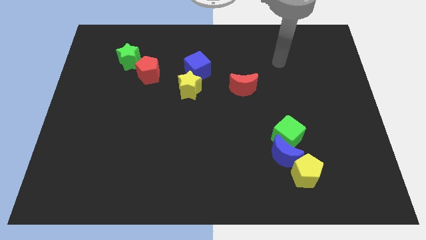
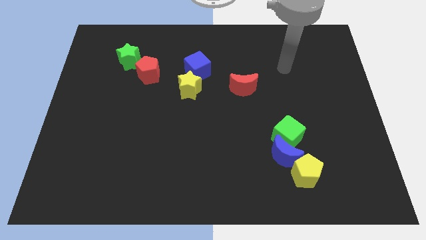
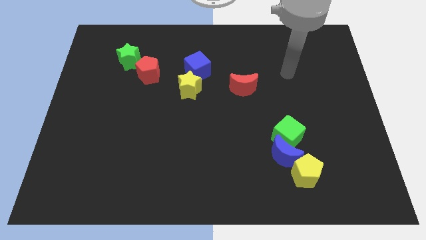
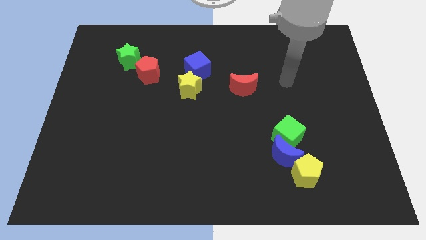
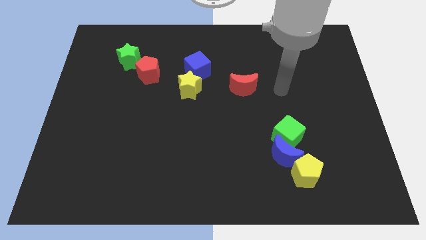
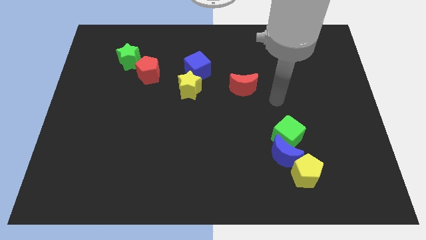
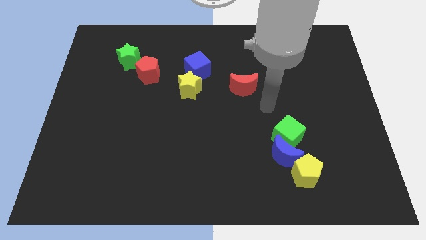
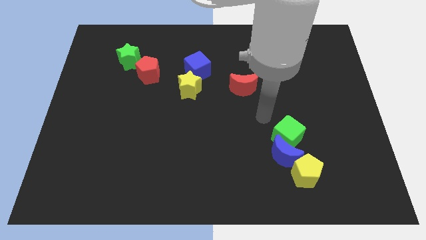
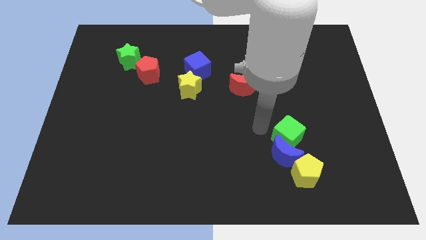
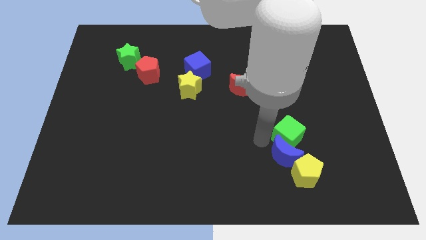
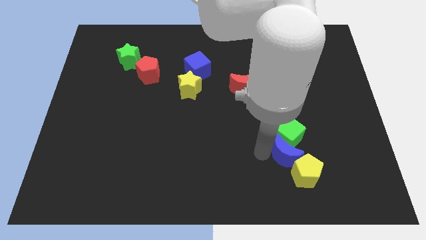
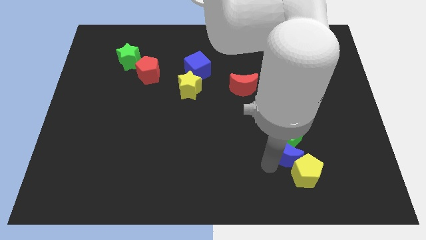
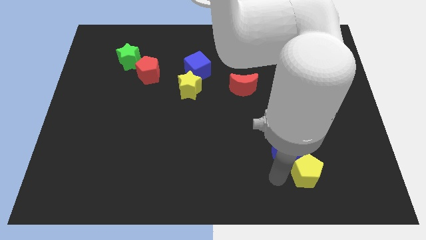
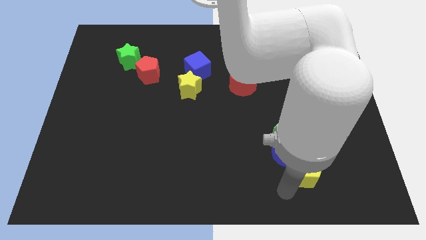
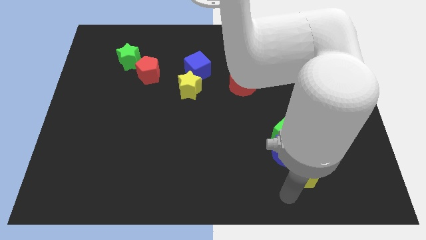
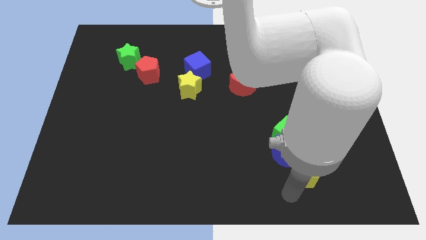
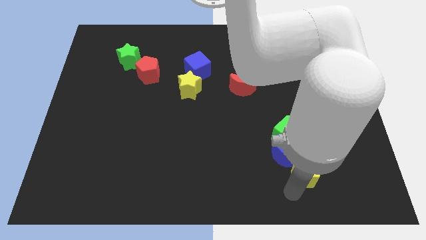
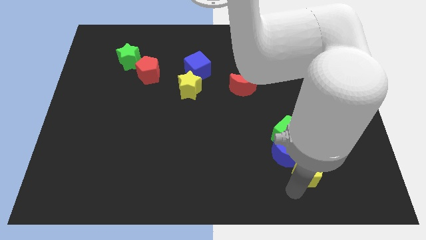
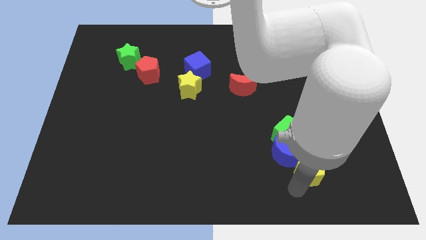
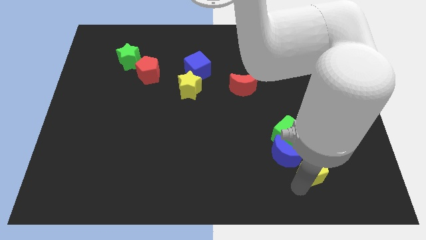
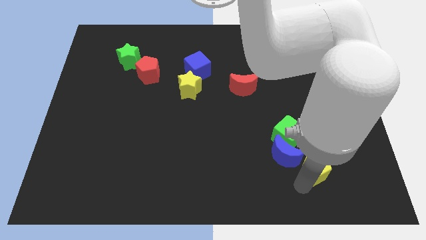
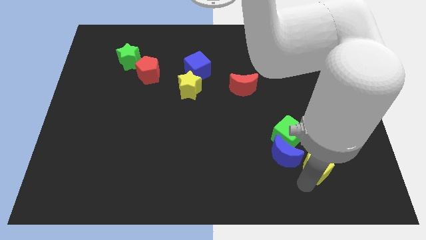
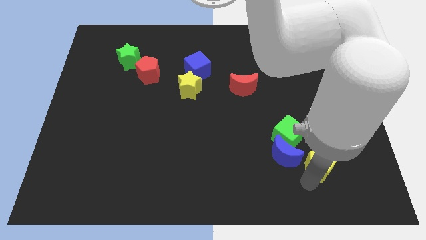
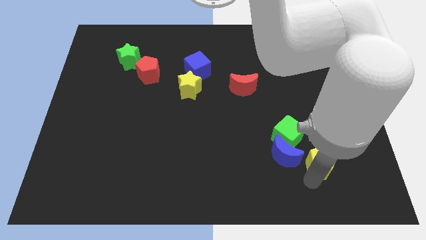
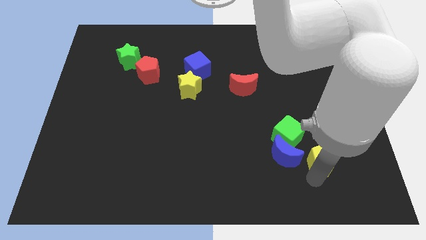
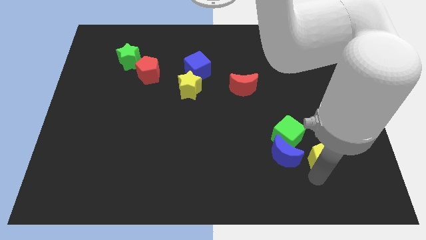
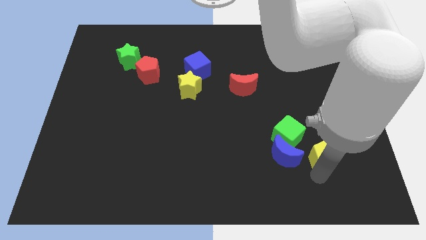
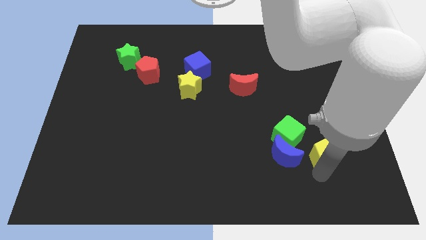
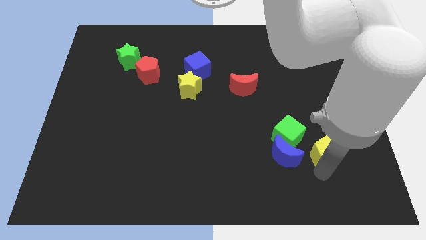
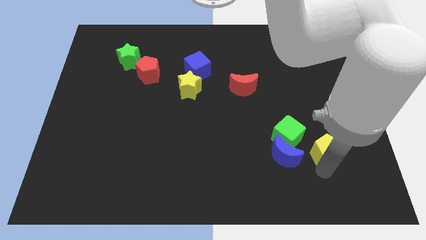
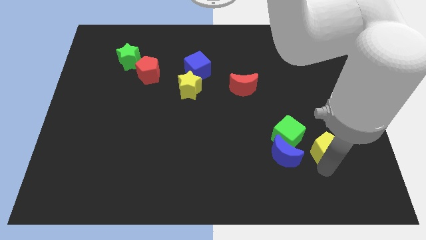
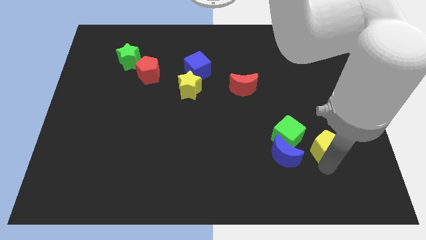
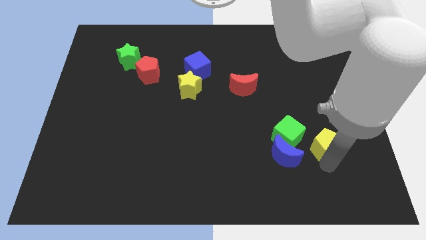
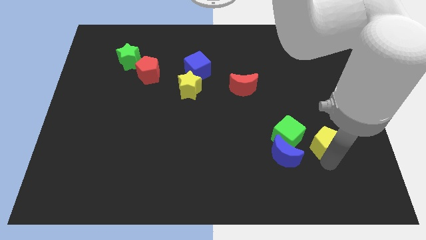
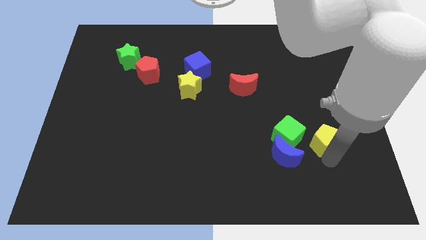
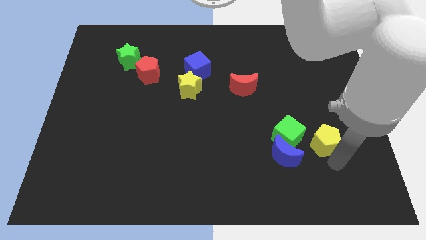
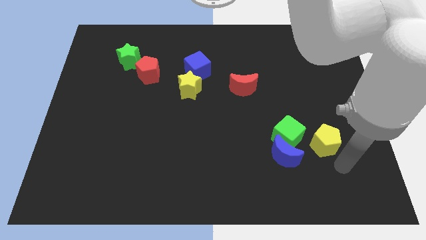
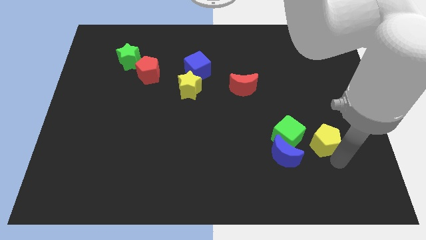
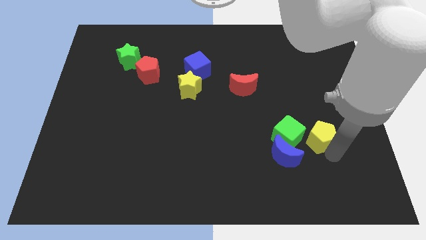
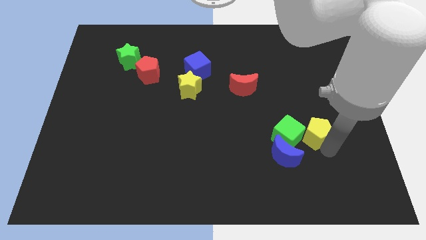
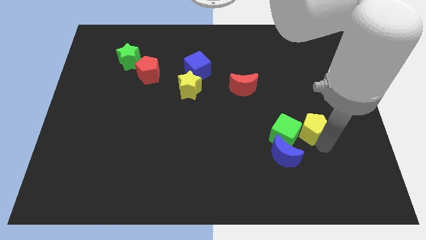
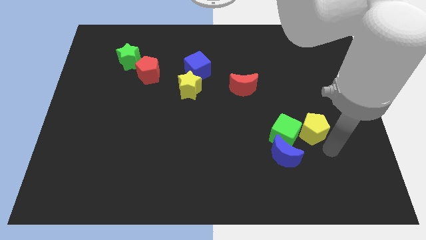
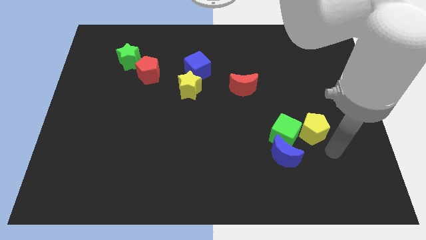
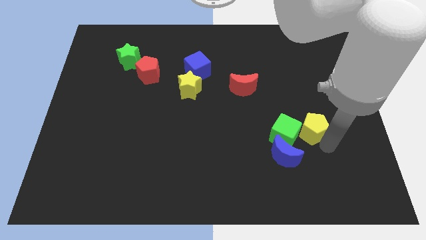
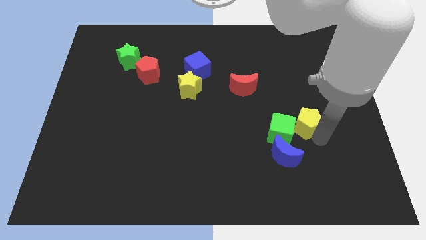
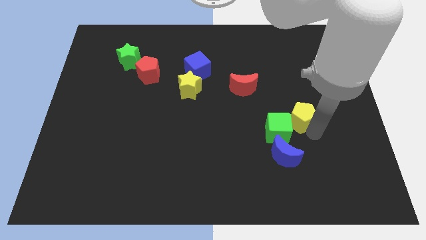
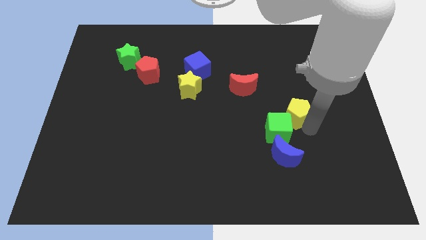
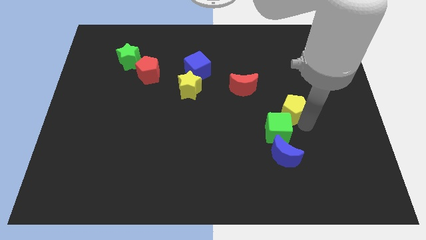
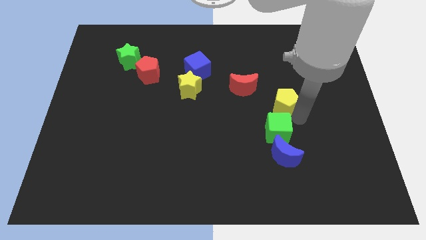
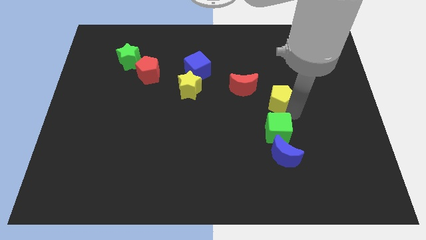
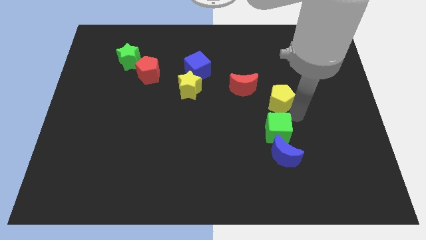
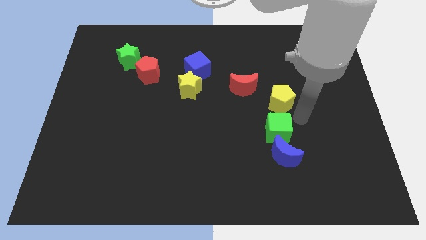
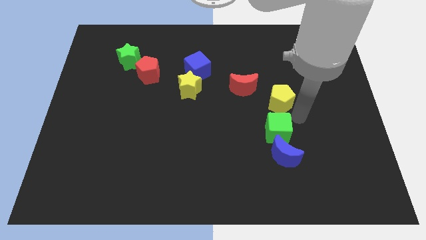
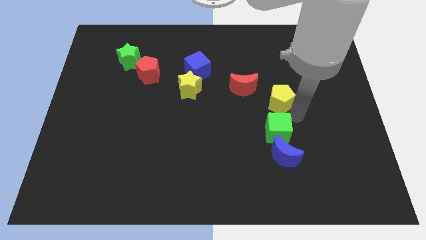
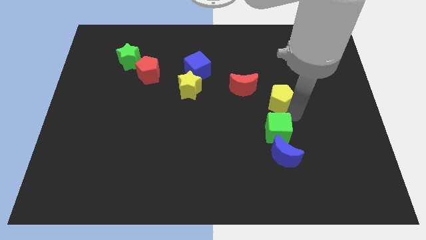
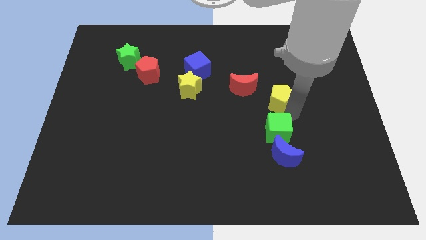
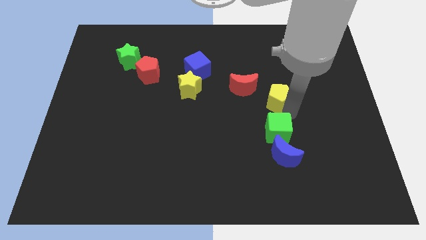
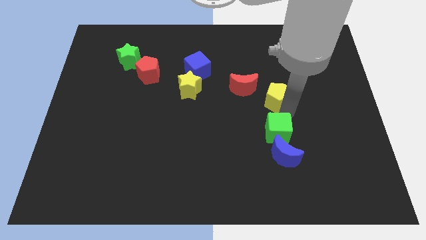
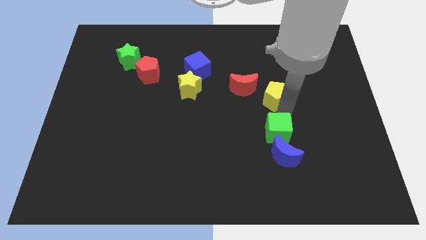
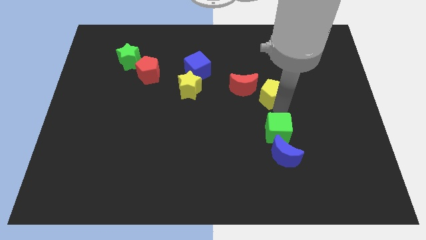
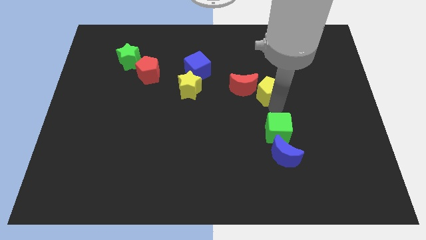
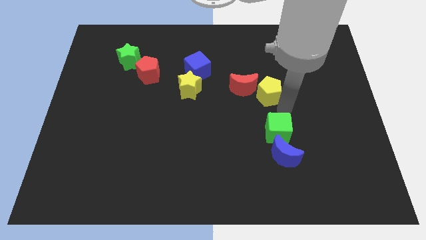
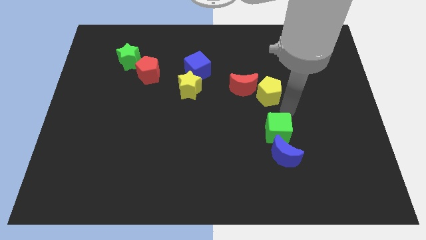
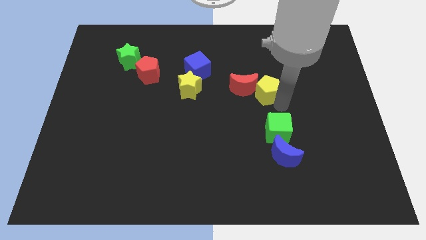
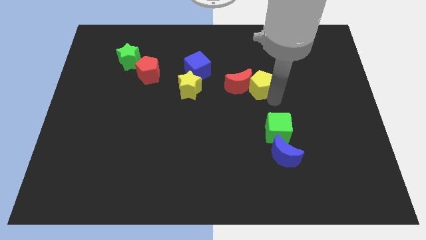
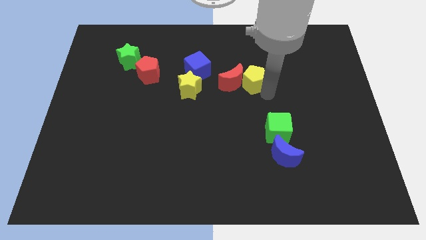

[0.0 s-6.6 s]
put the yellow pentagon right of the blue cube

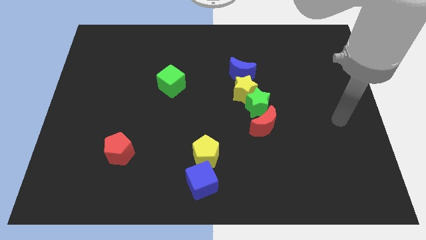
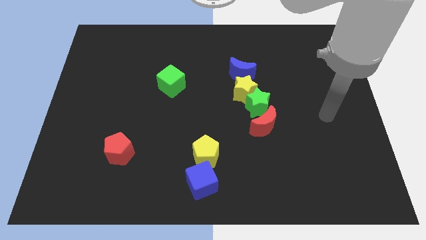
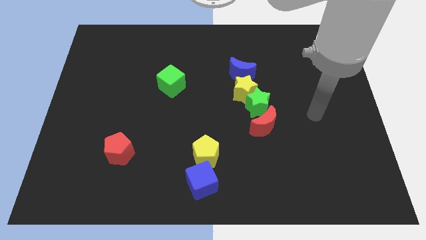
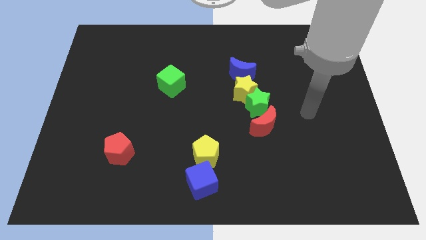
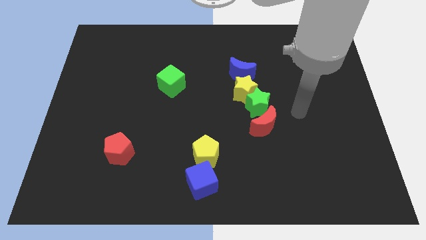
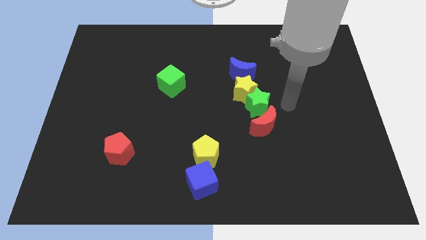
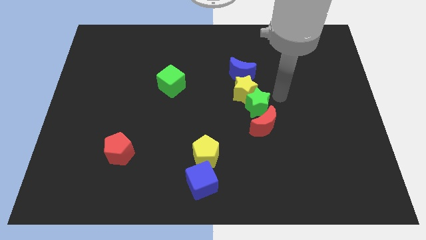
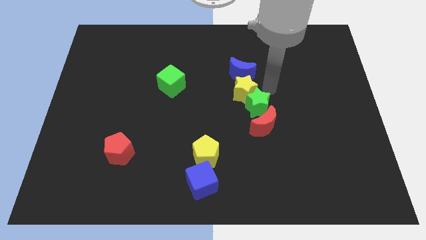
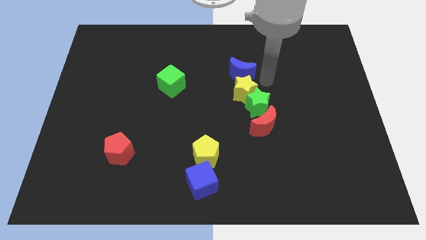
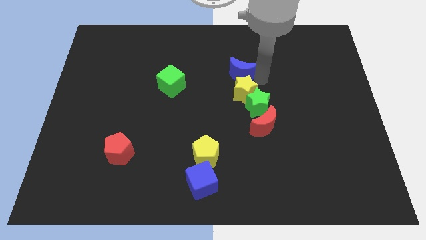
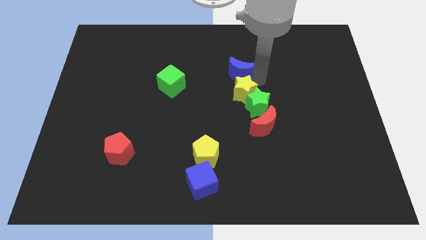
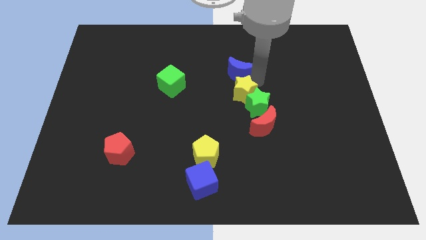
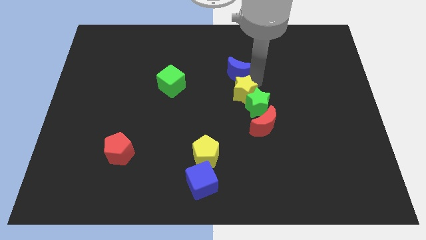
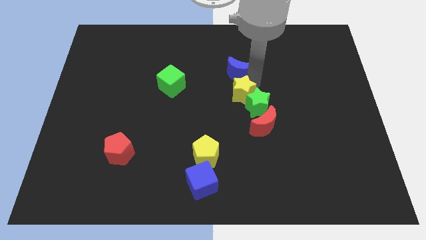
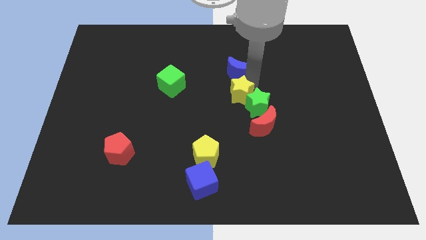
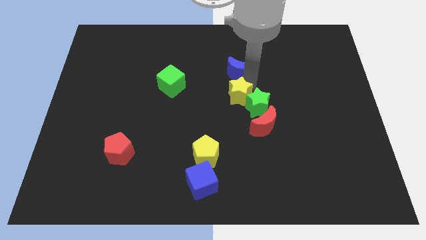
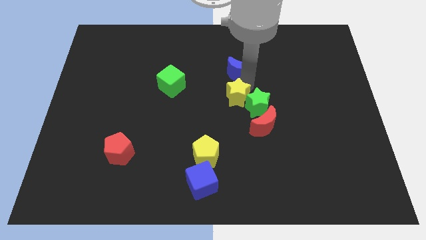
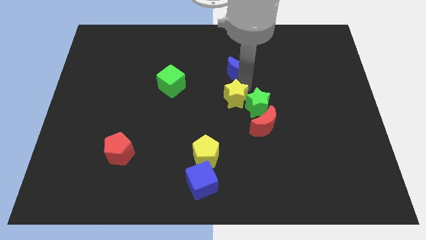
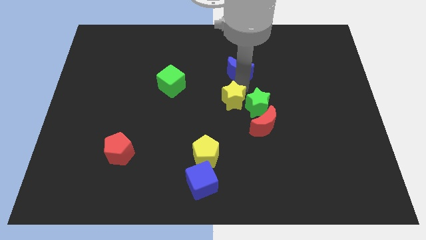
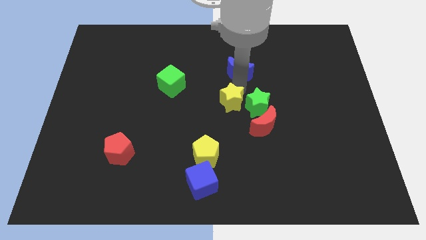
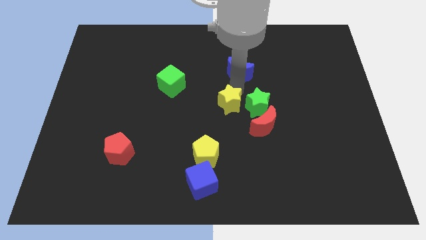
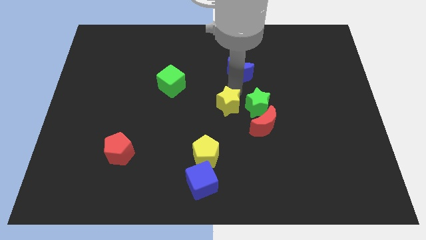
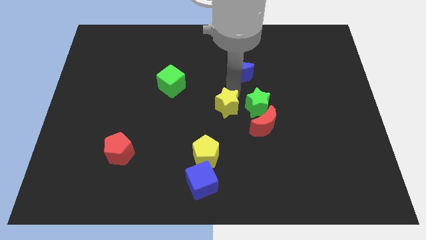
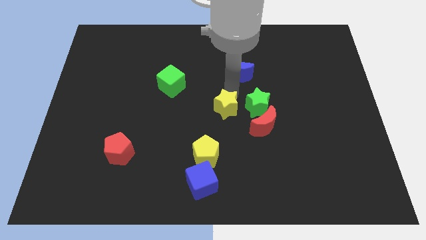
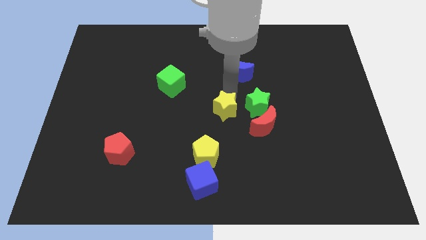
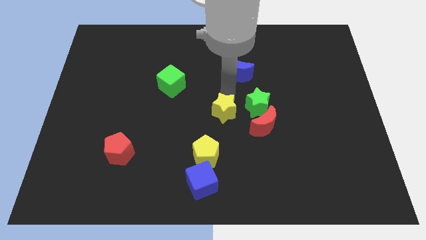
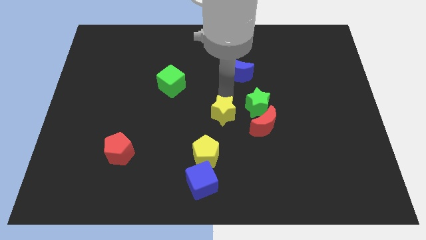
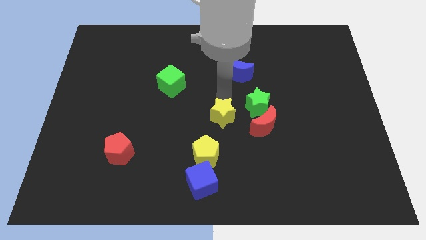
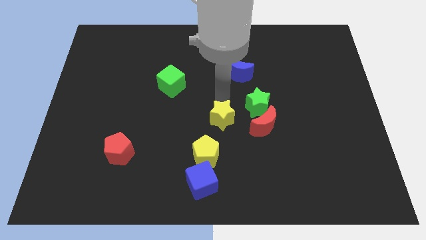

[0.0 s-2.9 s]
put the yellow star to the top right of the yellow pentagon
